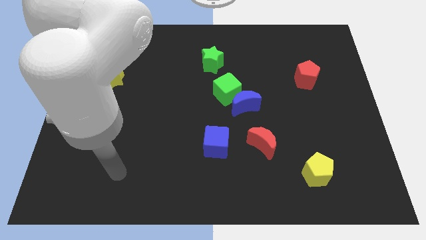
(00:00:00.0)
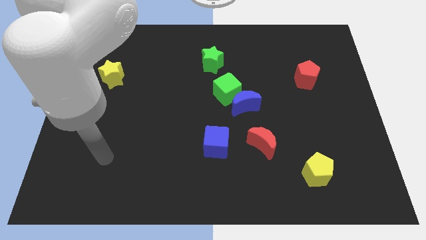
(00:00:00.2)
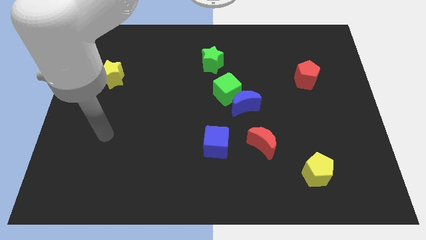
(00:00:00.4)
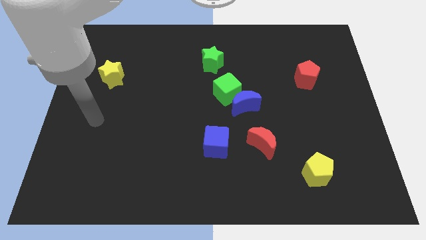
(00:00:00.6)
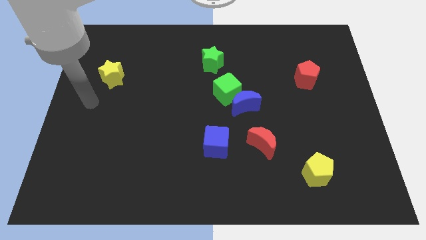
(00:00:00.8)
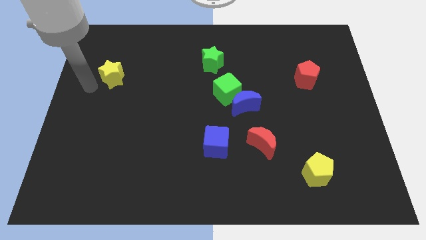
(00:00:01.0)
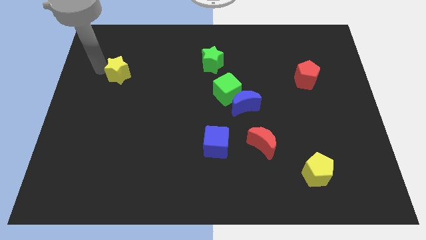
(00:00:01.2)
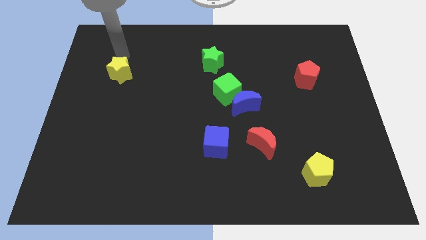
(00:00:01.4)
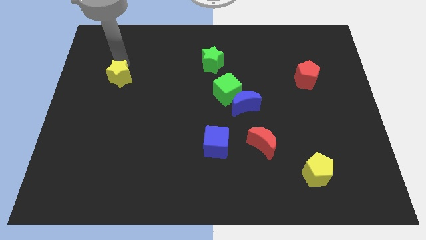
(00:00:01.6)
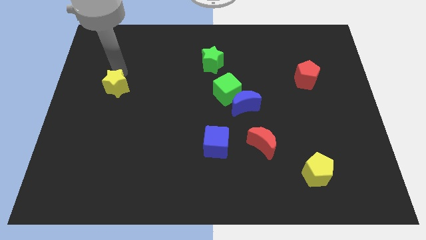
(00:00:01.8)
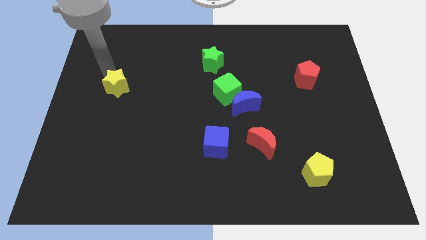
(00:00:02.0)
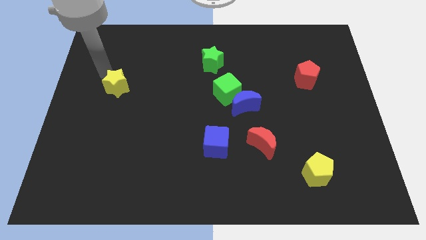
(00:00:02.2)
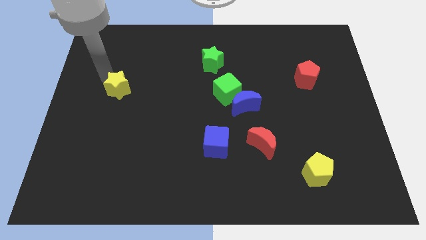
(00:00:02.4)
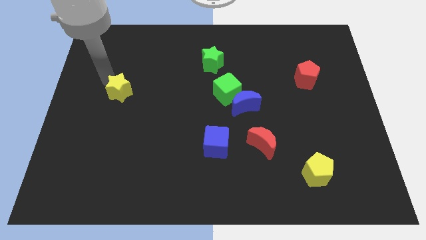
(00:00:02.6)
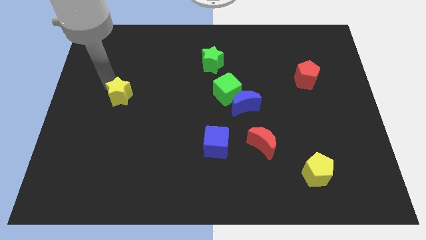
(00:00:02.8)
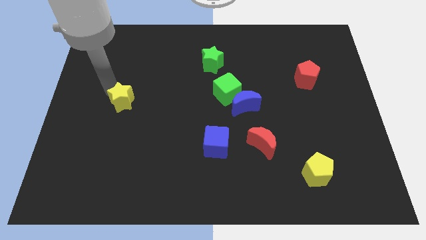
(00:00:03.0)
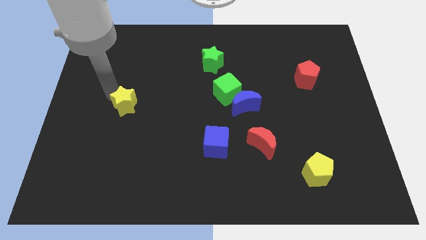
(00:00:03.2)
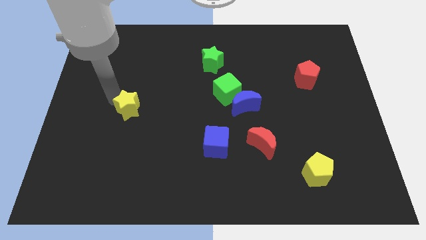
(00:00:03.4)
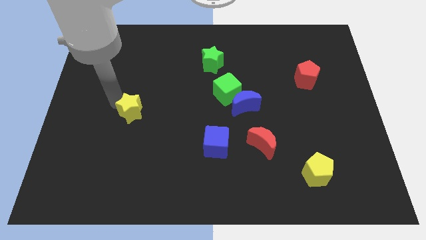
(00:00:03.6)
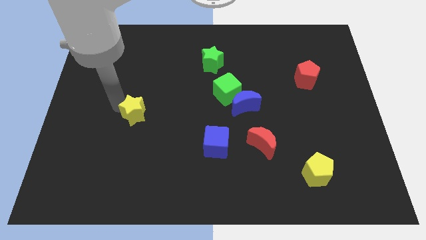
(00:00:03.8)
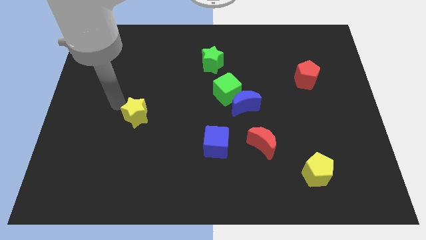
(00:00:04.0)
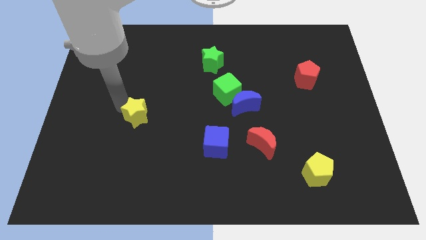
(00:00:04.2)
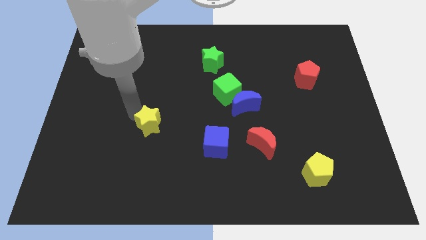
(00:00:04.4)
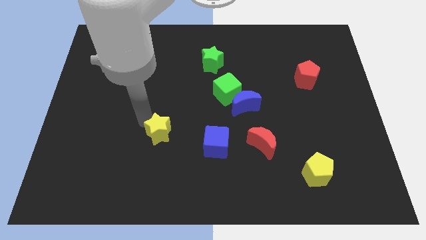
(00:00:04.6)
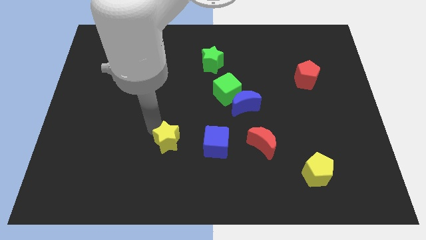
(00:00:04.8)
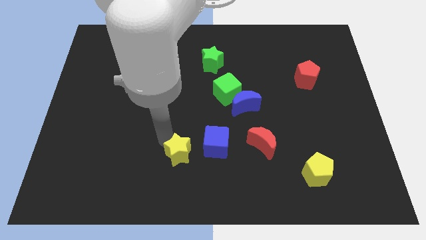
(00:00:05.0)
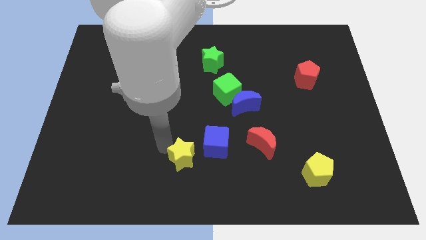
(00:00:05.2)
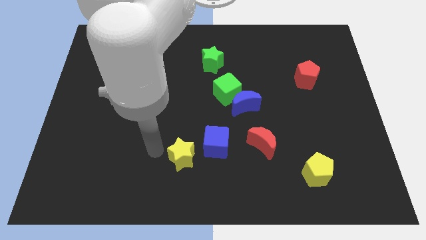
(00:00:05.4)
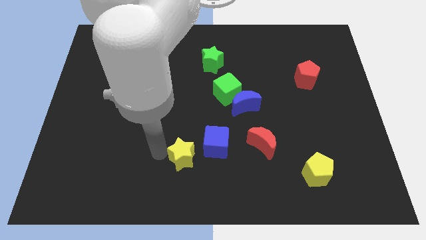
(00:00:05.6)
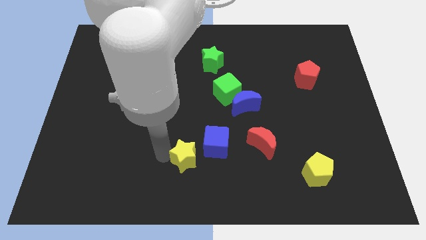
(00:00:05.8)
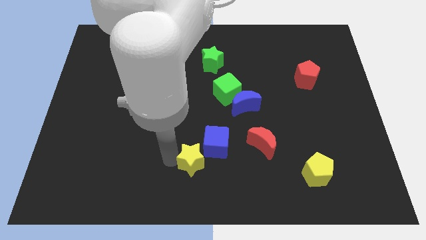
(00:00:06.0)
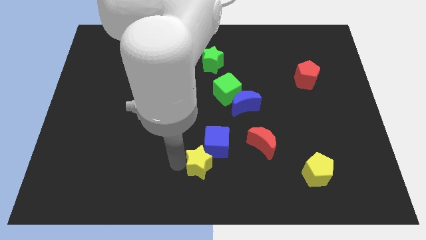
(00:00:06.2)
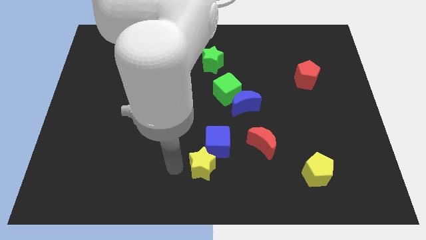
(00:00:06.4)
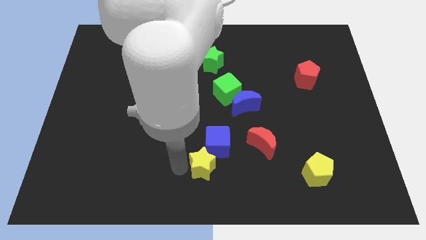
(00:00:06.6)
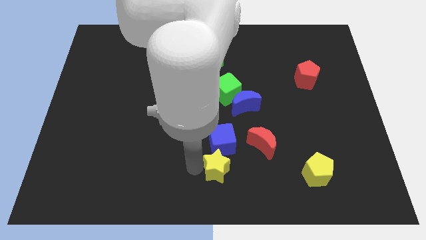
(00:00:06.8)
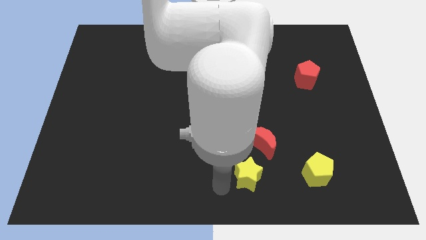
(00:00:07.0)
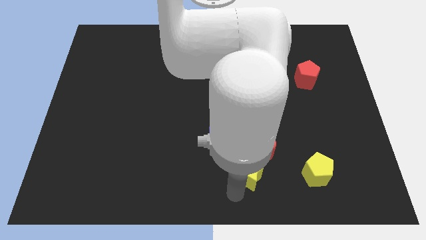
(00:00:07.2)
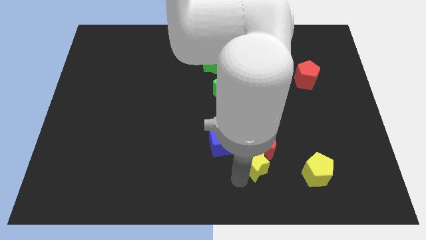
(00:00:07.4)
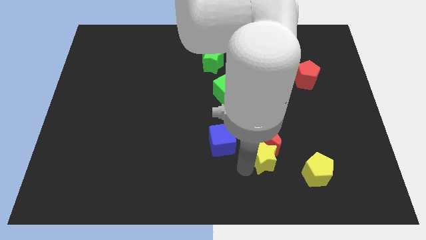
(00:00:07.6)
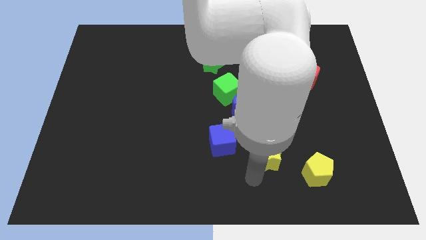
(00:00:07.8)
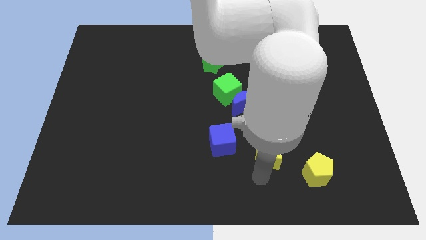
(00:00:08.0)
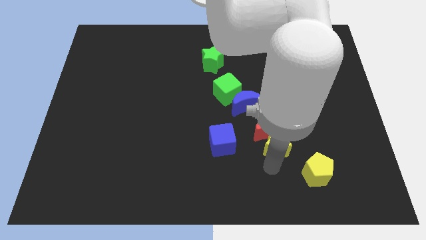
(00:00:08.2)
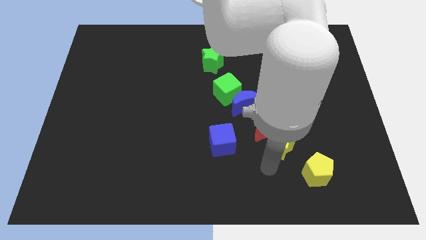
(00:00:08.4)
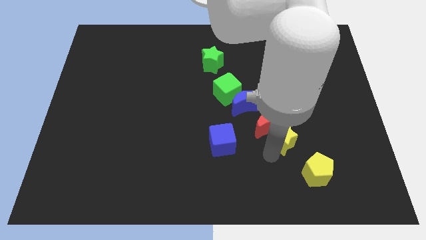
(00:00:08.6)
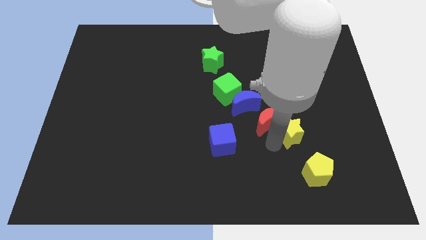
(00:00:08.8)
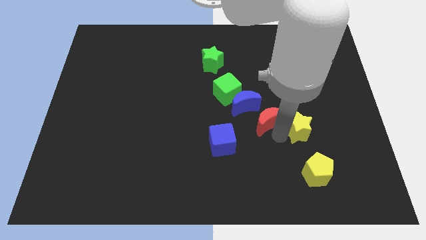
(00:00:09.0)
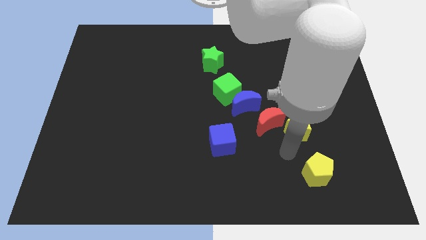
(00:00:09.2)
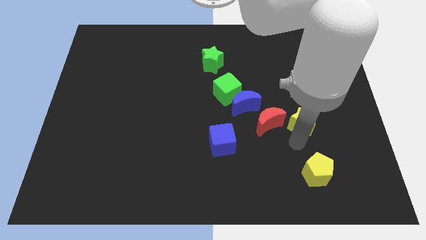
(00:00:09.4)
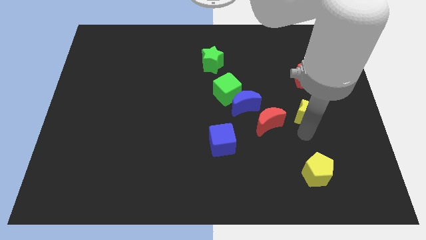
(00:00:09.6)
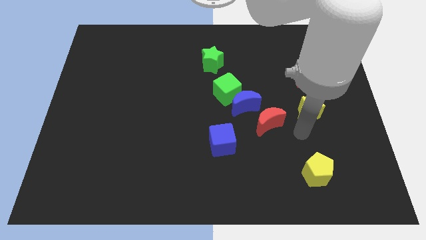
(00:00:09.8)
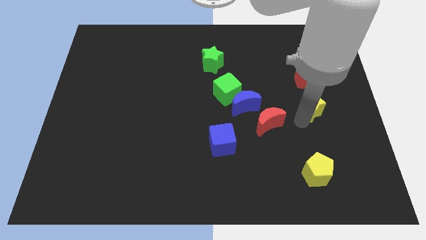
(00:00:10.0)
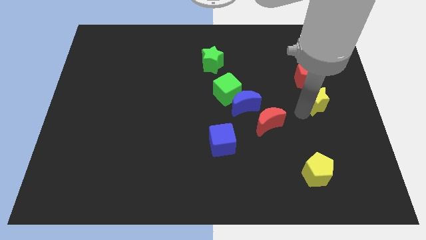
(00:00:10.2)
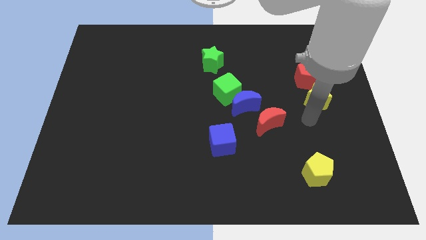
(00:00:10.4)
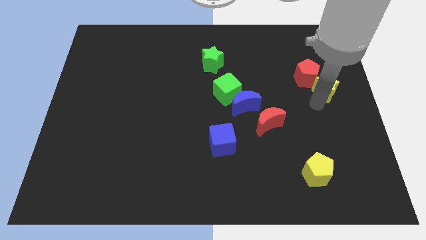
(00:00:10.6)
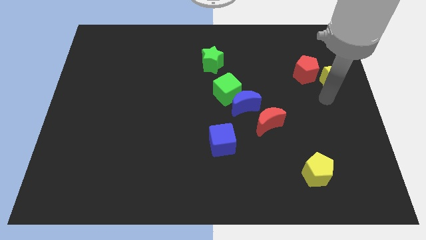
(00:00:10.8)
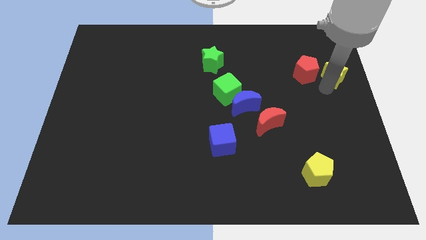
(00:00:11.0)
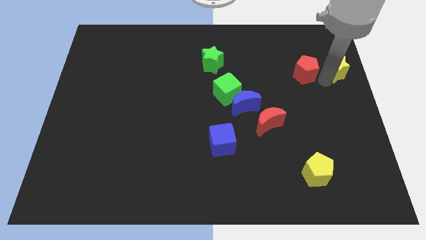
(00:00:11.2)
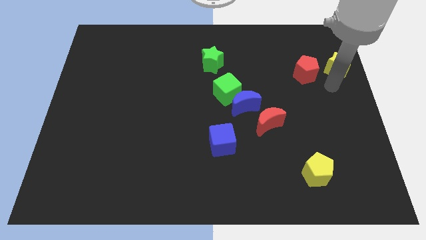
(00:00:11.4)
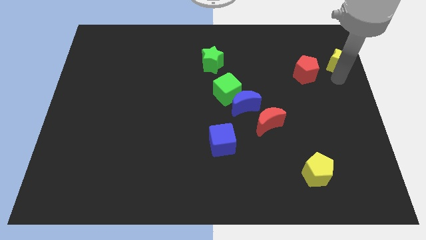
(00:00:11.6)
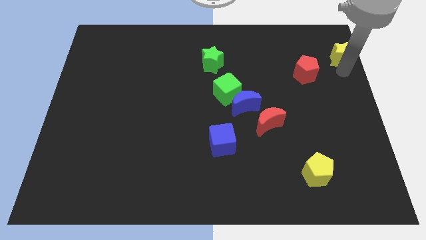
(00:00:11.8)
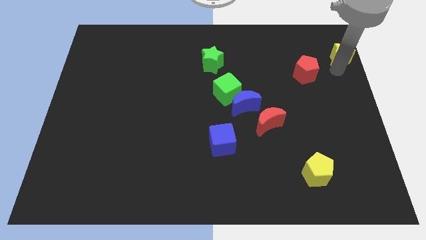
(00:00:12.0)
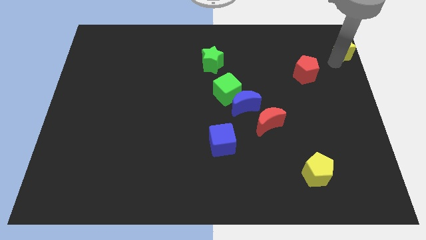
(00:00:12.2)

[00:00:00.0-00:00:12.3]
move the yellow star to the top right of the board

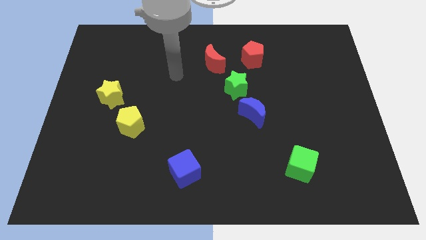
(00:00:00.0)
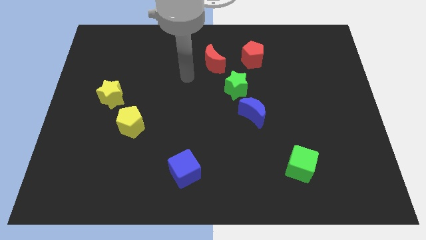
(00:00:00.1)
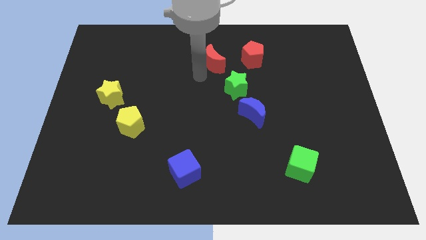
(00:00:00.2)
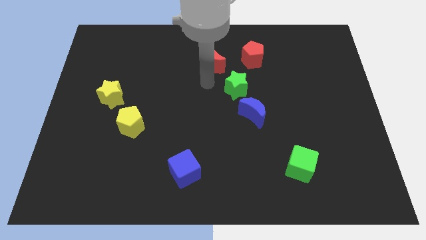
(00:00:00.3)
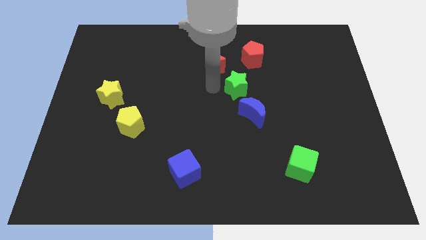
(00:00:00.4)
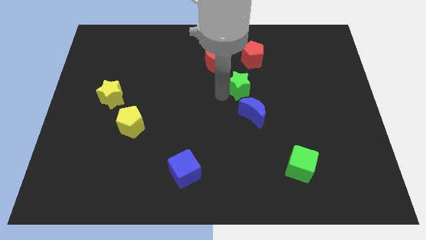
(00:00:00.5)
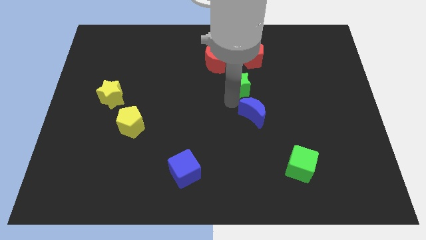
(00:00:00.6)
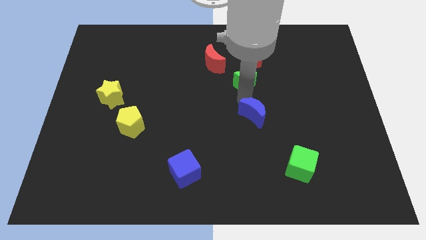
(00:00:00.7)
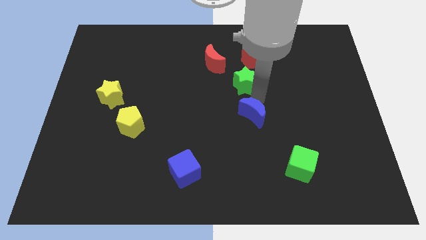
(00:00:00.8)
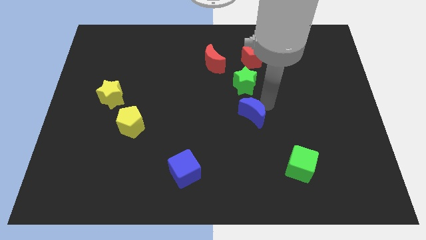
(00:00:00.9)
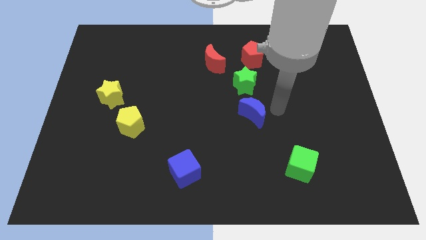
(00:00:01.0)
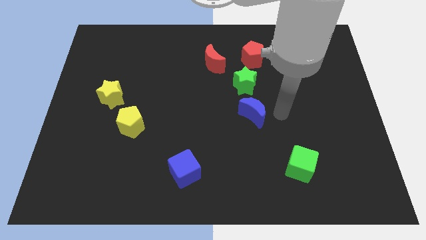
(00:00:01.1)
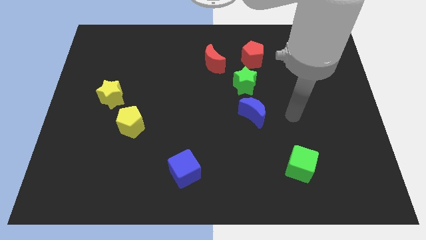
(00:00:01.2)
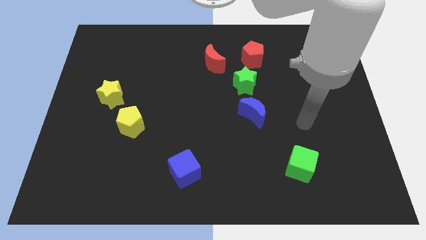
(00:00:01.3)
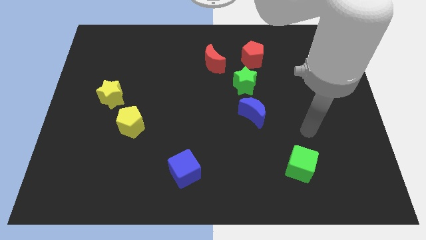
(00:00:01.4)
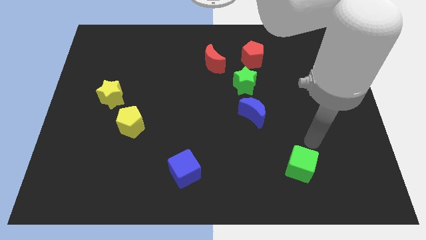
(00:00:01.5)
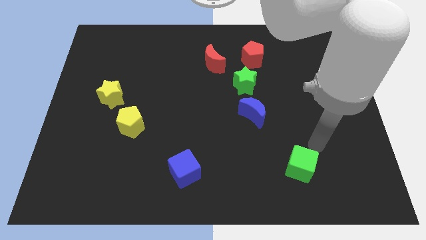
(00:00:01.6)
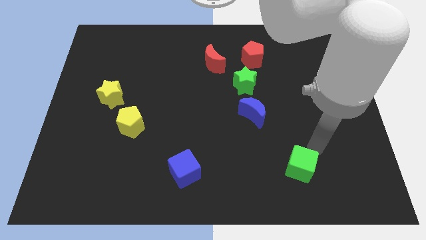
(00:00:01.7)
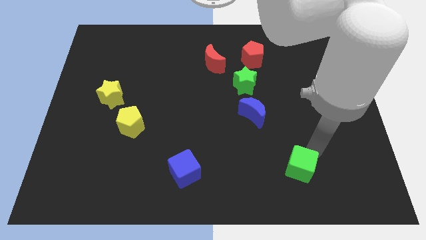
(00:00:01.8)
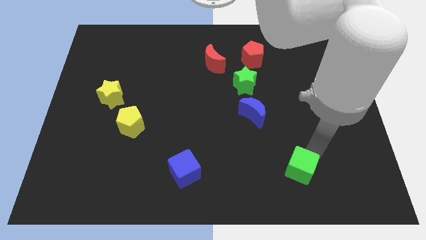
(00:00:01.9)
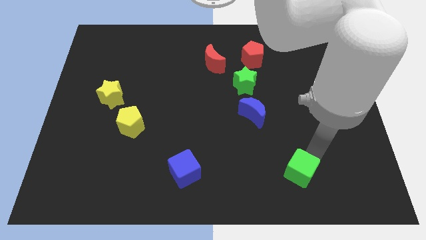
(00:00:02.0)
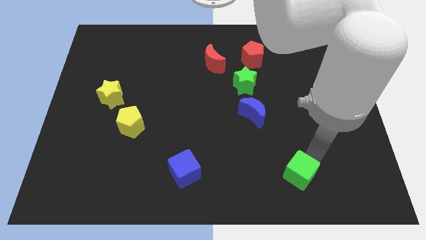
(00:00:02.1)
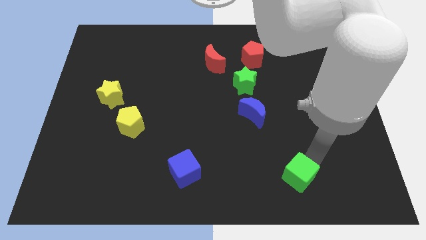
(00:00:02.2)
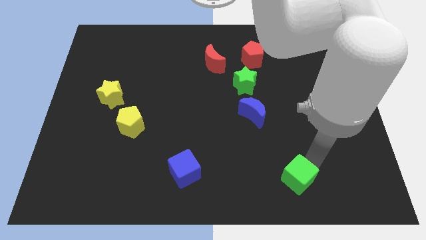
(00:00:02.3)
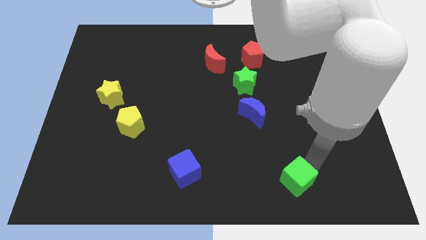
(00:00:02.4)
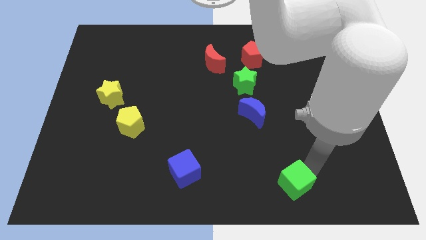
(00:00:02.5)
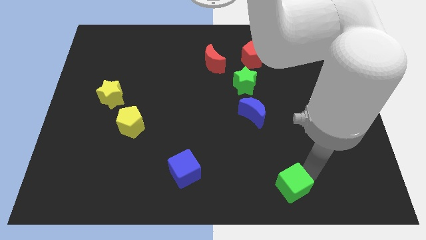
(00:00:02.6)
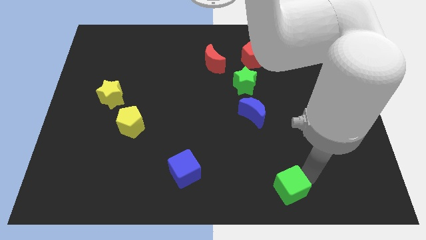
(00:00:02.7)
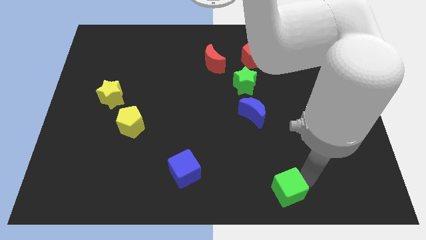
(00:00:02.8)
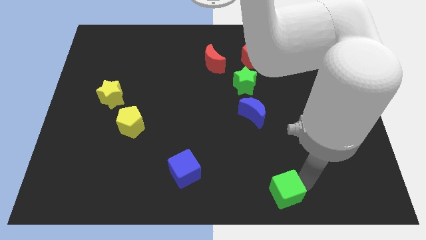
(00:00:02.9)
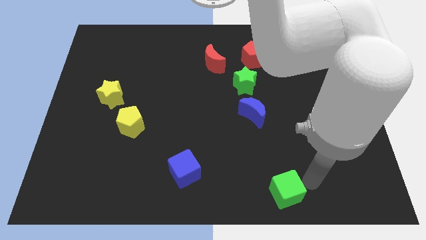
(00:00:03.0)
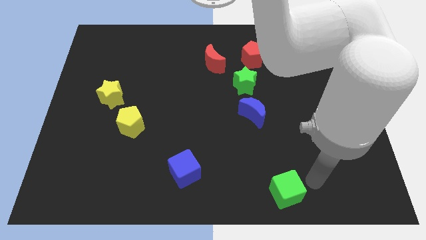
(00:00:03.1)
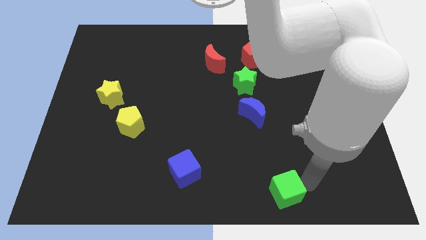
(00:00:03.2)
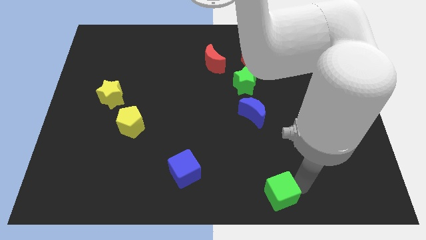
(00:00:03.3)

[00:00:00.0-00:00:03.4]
put the green cube to the bottom
